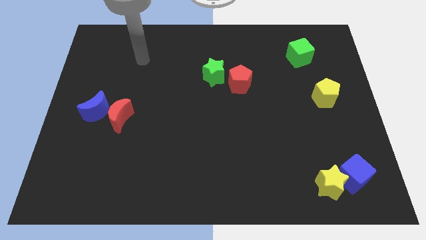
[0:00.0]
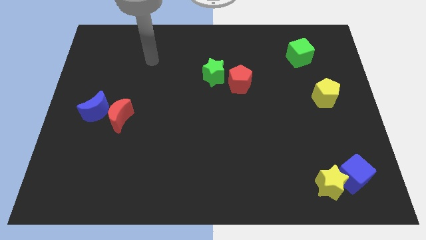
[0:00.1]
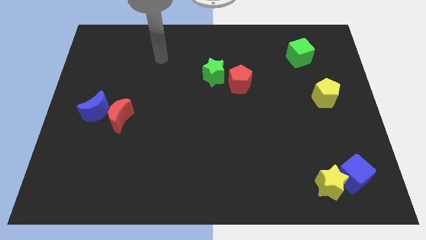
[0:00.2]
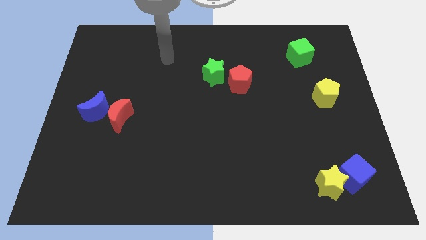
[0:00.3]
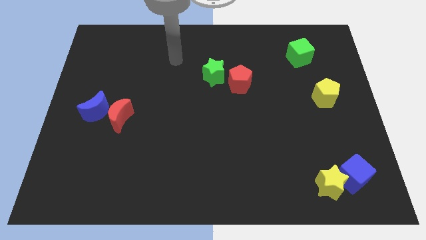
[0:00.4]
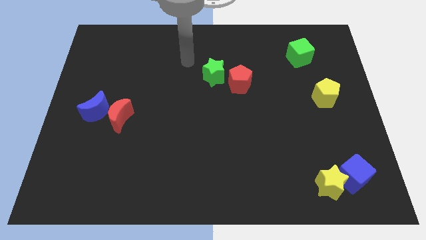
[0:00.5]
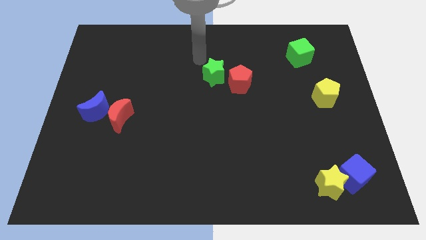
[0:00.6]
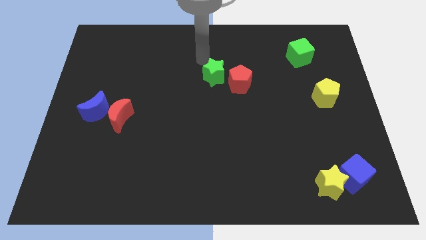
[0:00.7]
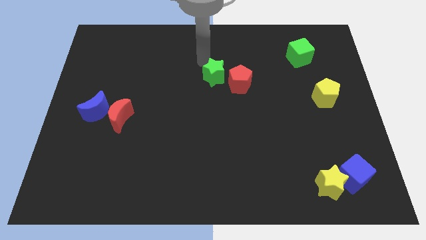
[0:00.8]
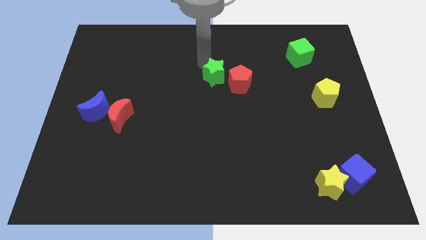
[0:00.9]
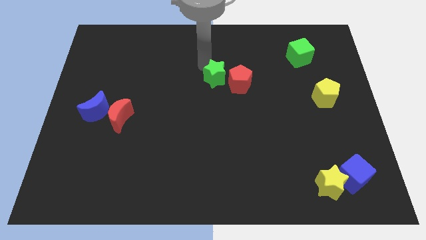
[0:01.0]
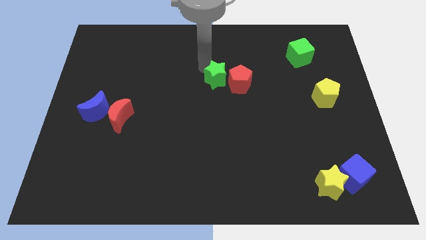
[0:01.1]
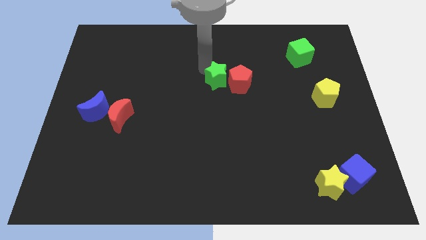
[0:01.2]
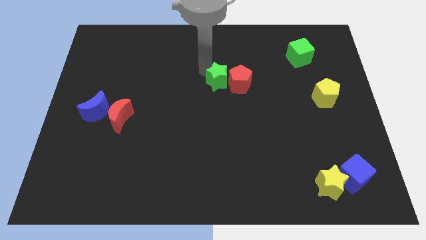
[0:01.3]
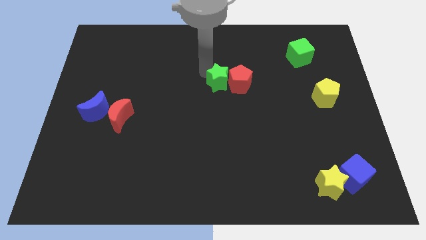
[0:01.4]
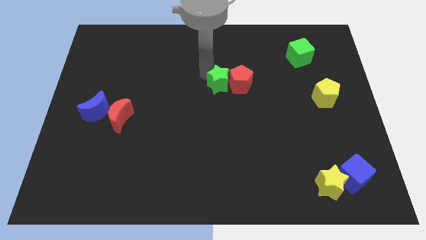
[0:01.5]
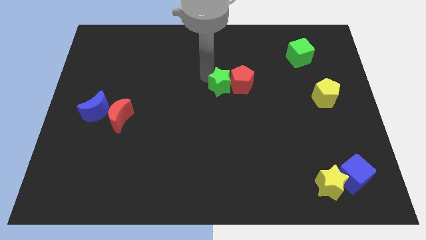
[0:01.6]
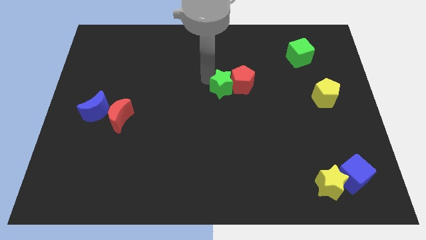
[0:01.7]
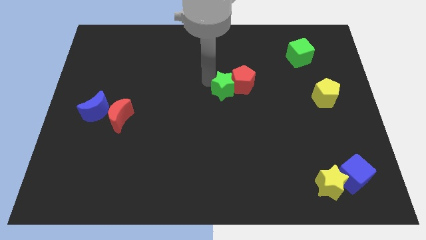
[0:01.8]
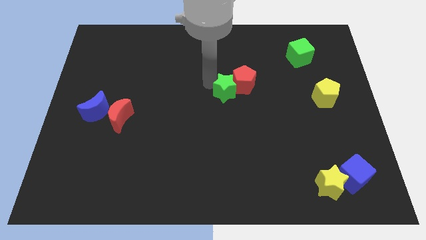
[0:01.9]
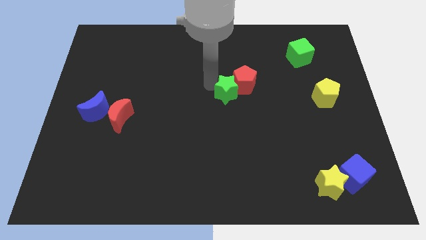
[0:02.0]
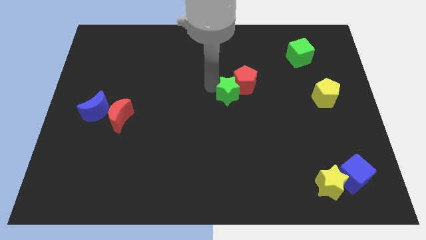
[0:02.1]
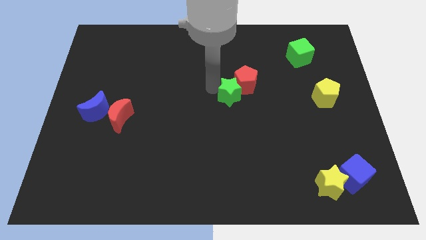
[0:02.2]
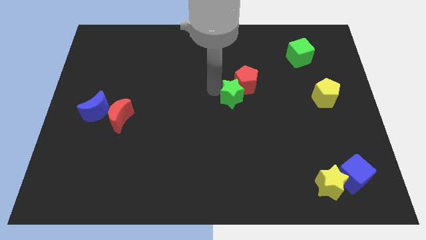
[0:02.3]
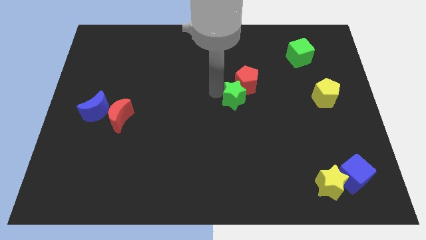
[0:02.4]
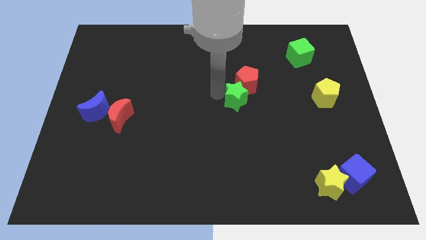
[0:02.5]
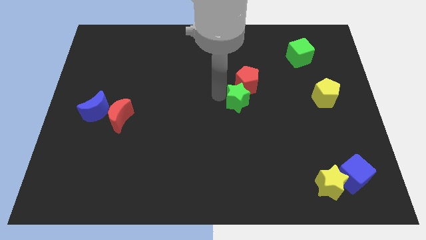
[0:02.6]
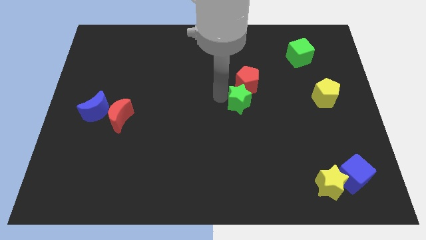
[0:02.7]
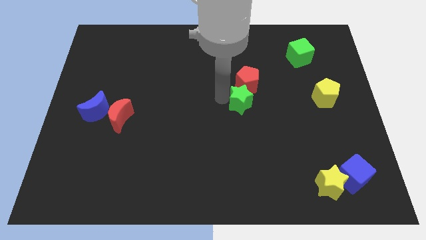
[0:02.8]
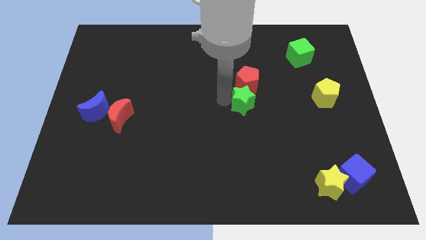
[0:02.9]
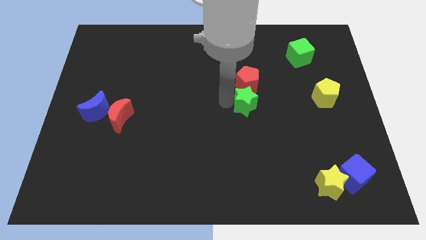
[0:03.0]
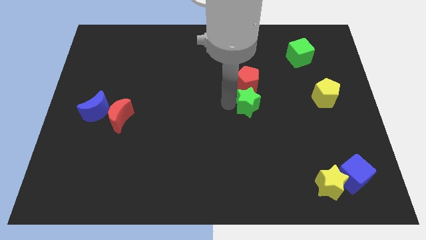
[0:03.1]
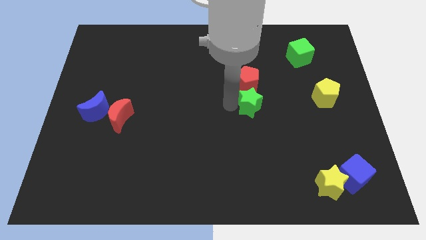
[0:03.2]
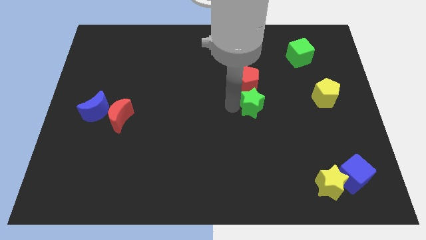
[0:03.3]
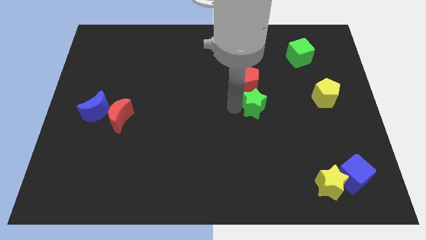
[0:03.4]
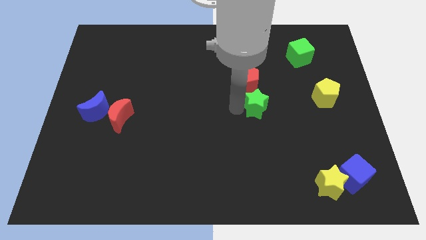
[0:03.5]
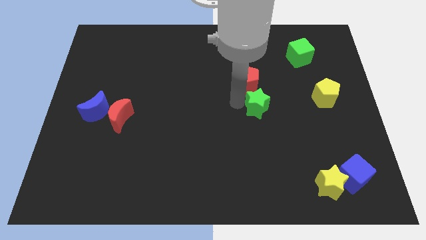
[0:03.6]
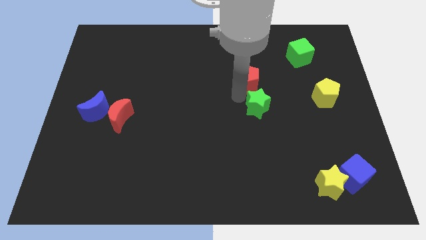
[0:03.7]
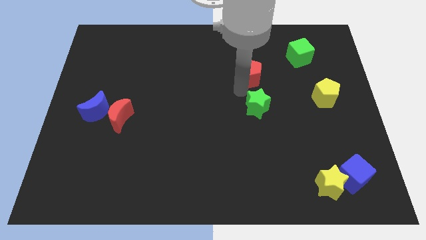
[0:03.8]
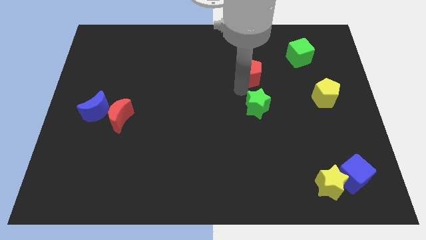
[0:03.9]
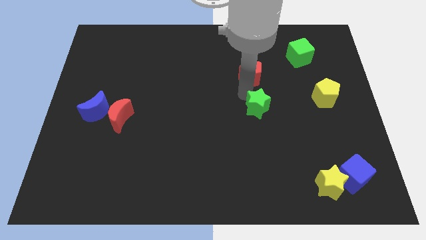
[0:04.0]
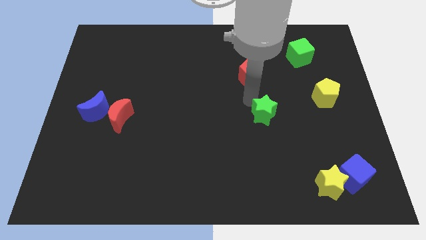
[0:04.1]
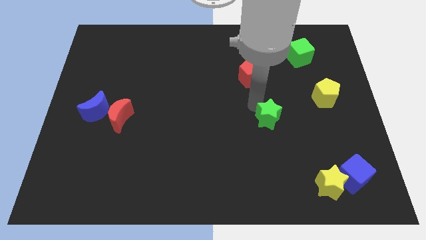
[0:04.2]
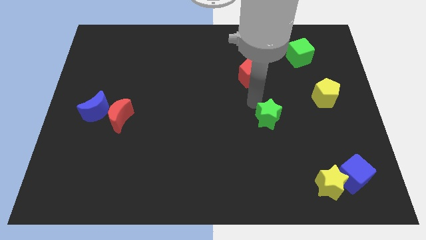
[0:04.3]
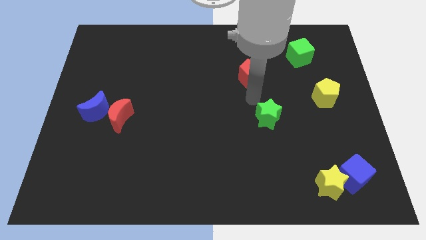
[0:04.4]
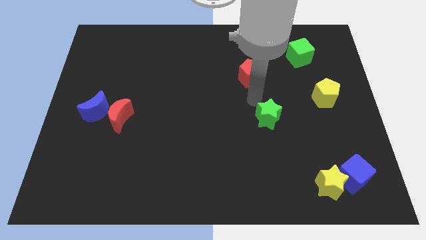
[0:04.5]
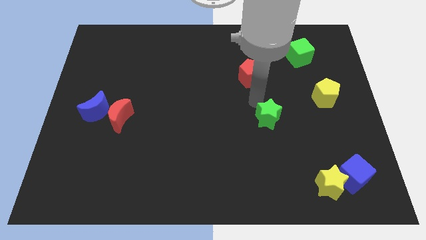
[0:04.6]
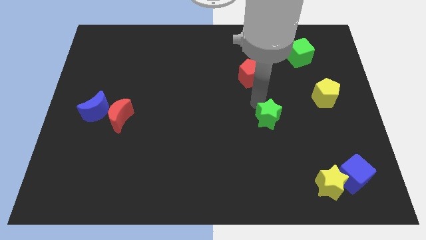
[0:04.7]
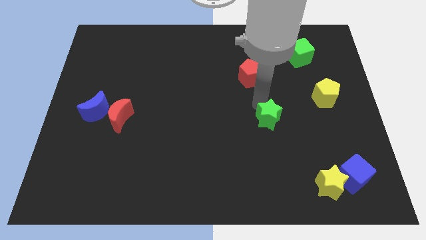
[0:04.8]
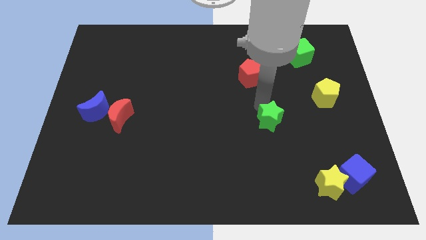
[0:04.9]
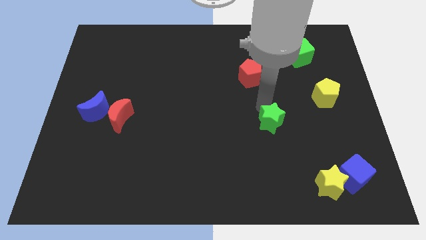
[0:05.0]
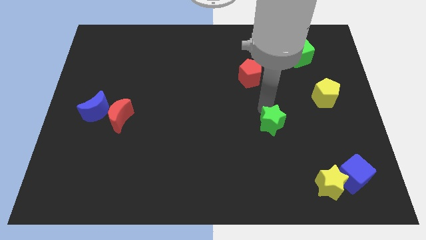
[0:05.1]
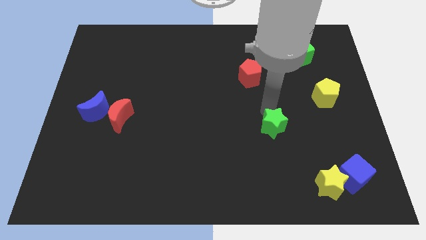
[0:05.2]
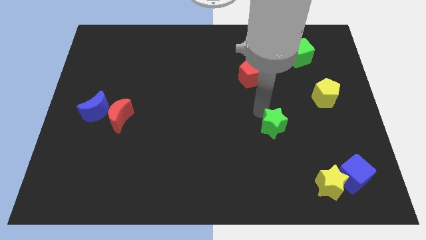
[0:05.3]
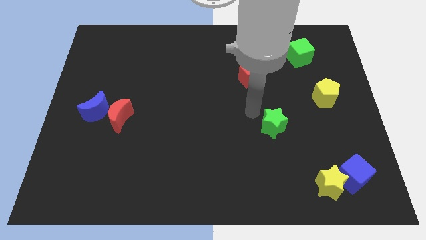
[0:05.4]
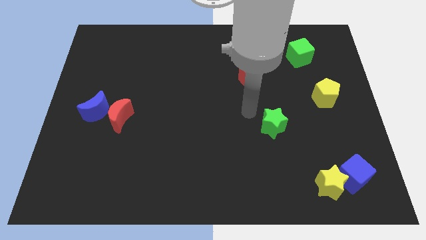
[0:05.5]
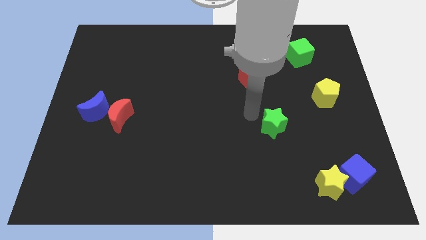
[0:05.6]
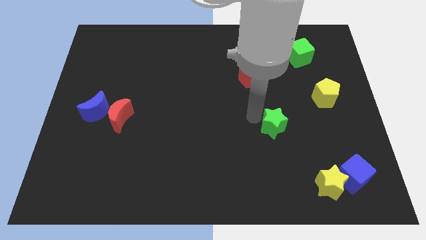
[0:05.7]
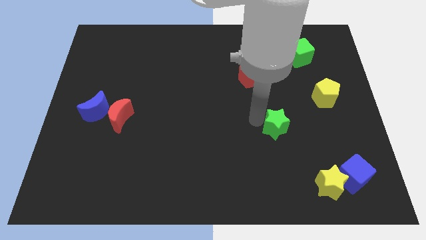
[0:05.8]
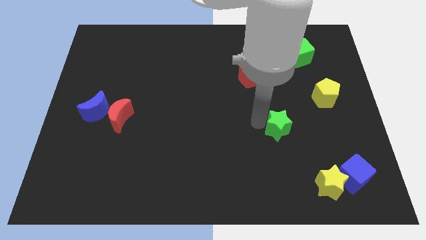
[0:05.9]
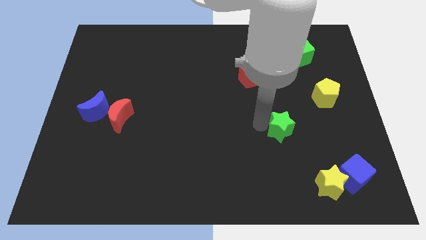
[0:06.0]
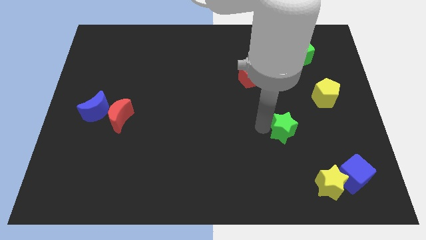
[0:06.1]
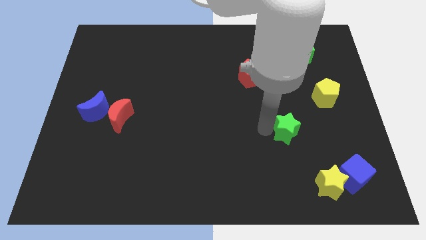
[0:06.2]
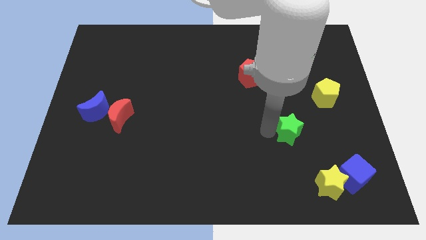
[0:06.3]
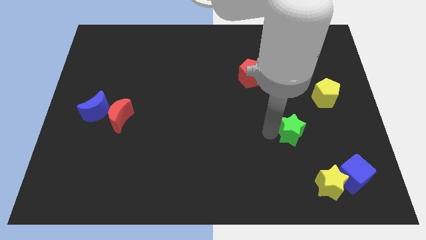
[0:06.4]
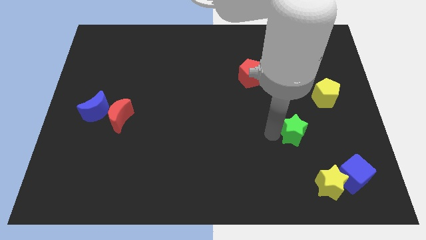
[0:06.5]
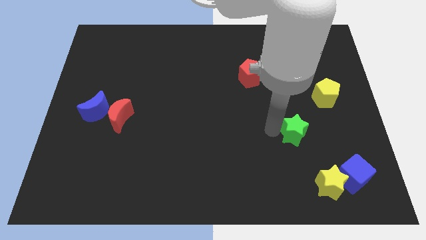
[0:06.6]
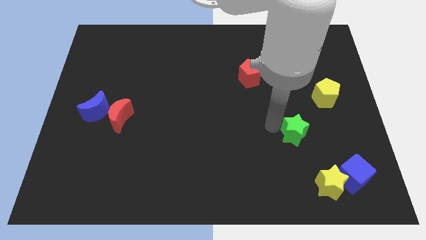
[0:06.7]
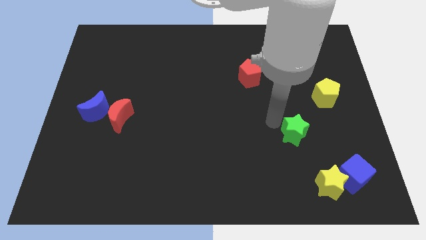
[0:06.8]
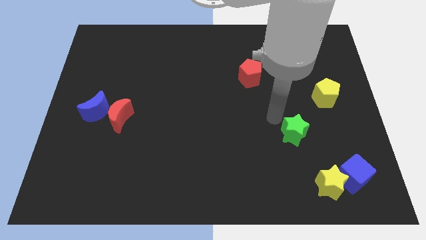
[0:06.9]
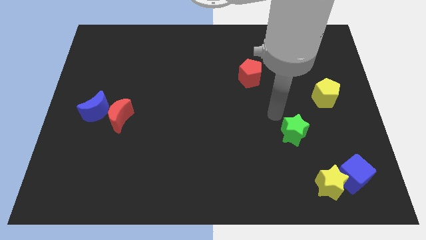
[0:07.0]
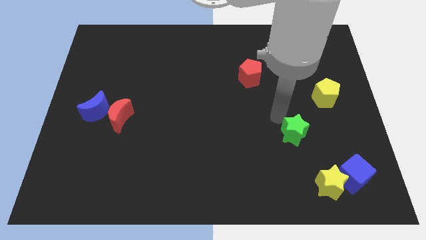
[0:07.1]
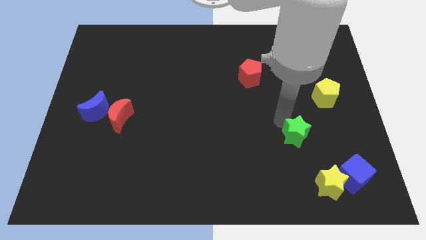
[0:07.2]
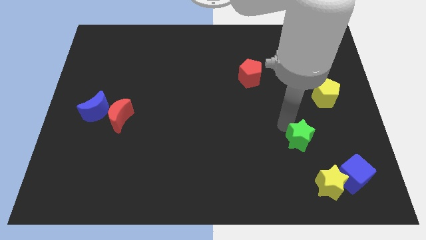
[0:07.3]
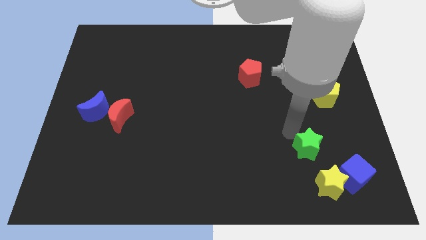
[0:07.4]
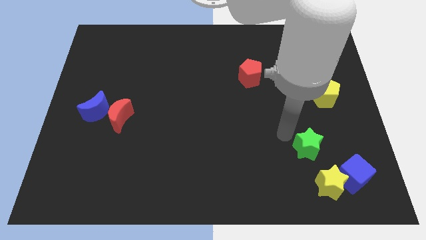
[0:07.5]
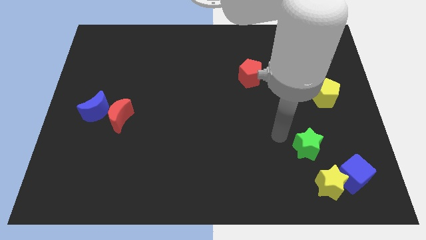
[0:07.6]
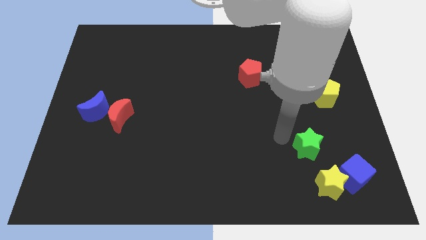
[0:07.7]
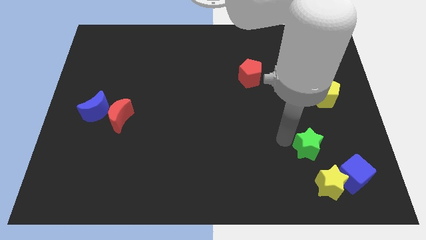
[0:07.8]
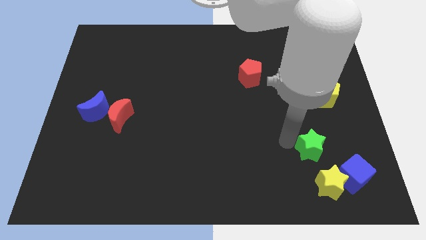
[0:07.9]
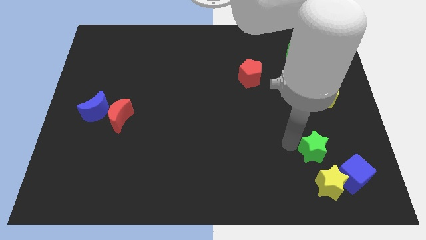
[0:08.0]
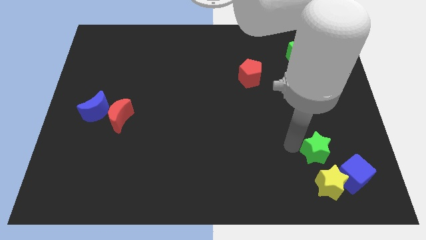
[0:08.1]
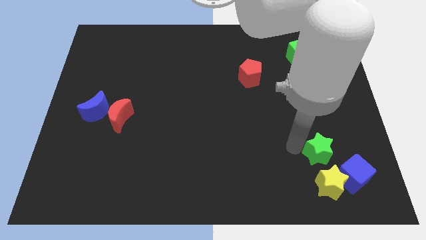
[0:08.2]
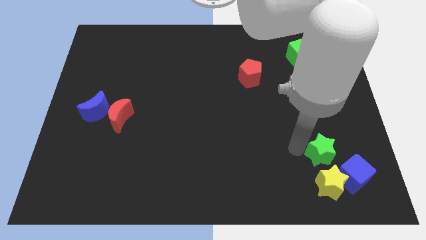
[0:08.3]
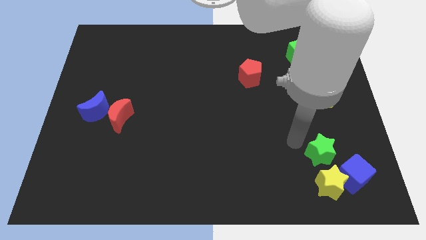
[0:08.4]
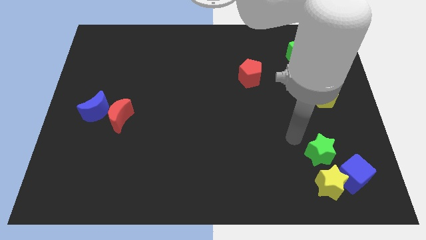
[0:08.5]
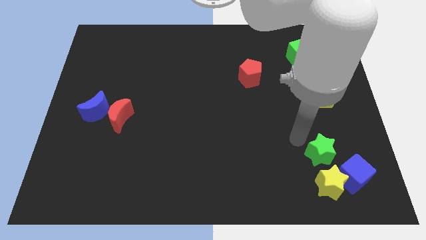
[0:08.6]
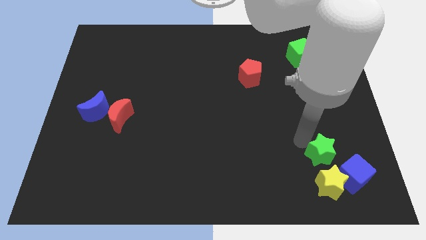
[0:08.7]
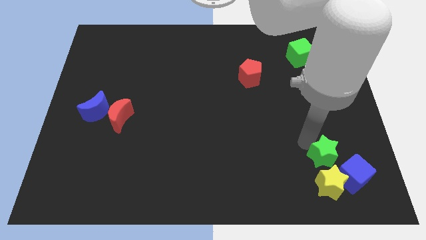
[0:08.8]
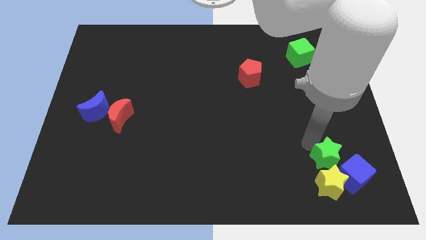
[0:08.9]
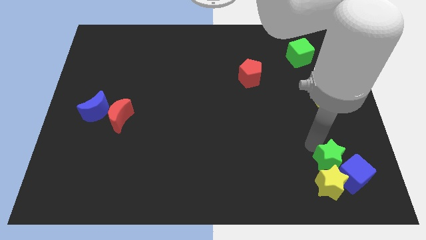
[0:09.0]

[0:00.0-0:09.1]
slide the green star towards the blue cube
